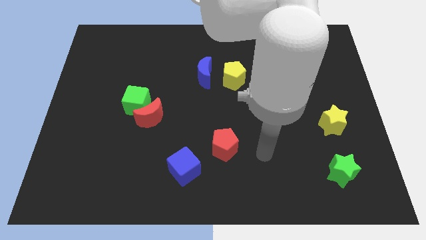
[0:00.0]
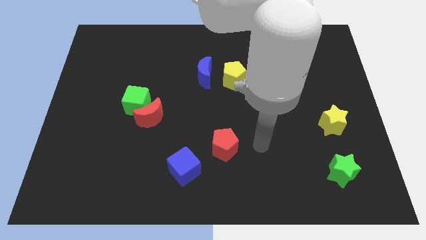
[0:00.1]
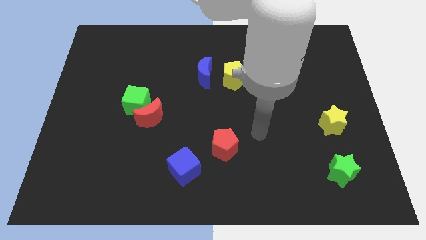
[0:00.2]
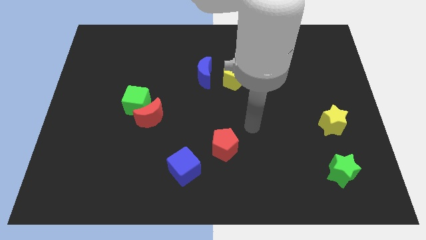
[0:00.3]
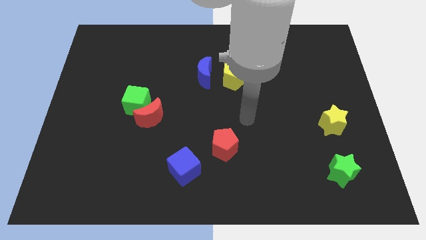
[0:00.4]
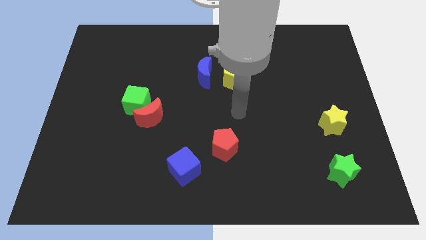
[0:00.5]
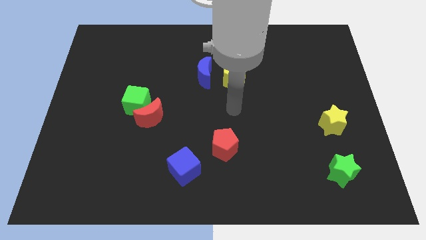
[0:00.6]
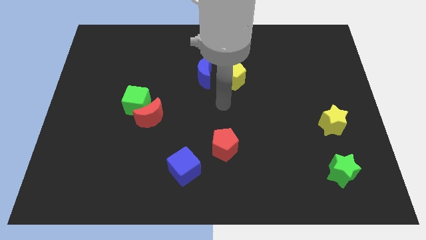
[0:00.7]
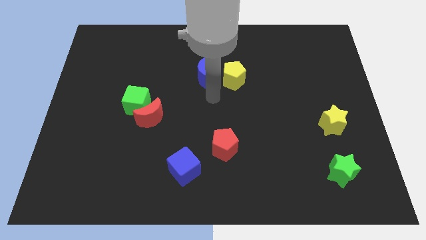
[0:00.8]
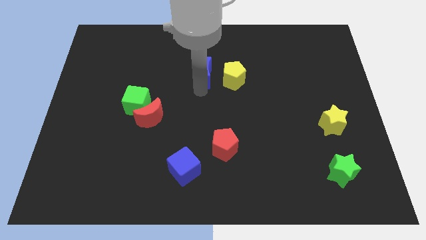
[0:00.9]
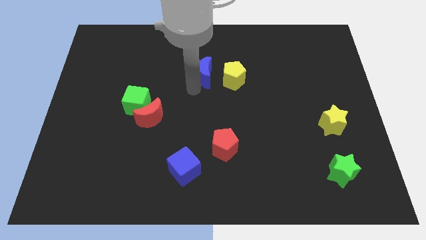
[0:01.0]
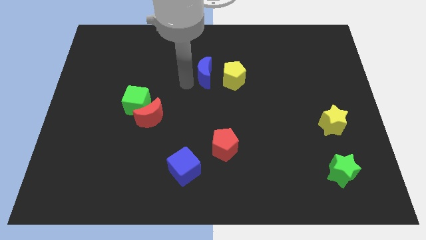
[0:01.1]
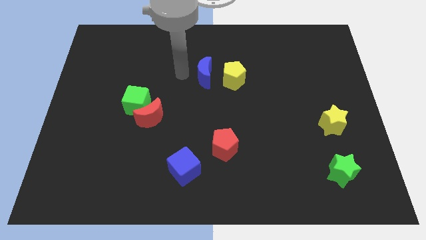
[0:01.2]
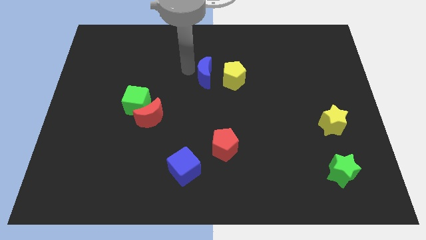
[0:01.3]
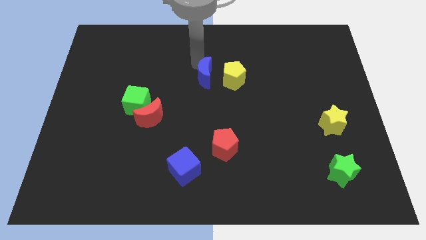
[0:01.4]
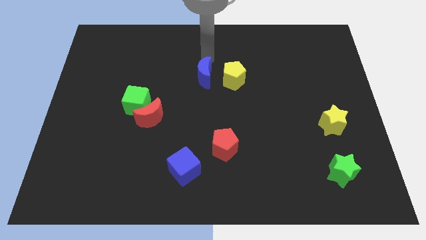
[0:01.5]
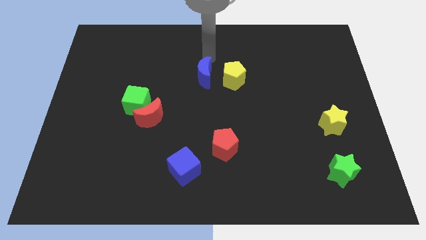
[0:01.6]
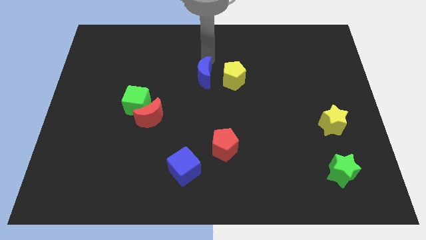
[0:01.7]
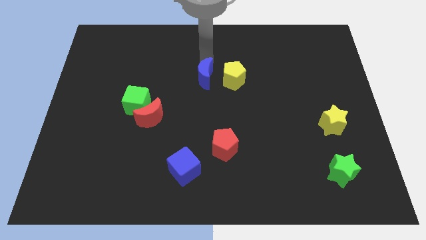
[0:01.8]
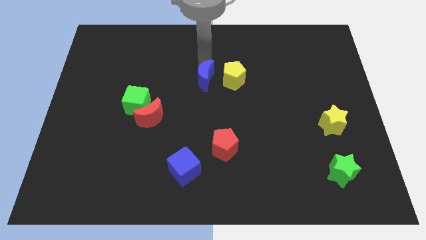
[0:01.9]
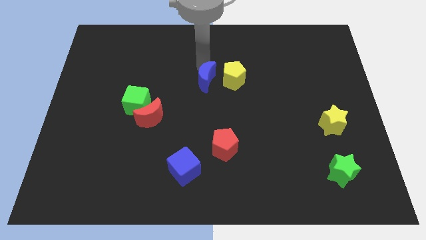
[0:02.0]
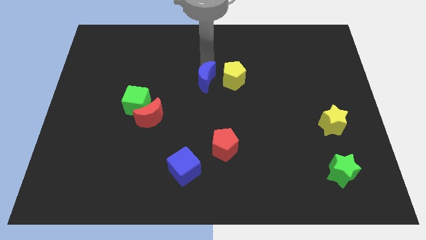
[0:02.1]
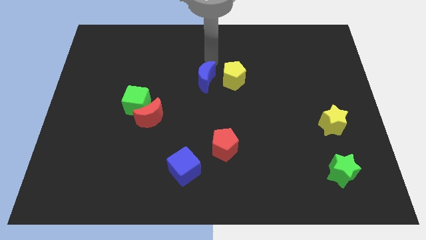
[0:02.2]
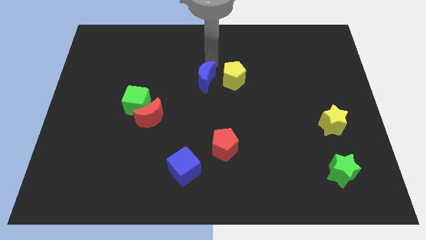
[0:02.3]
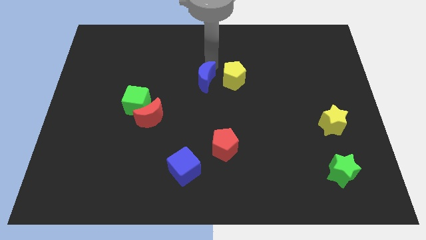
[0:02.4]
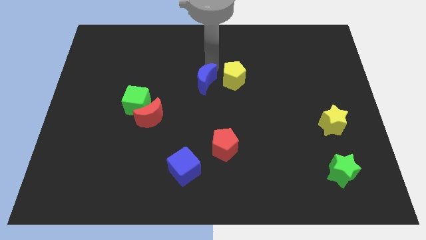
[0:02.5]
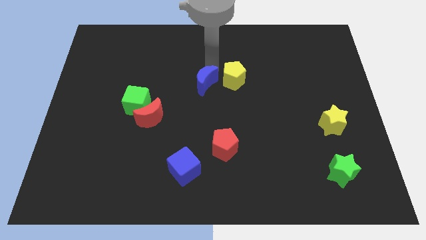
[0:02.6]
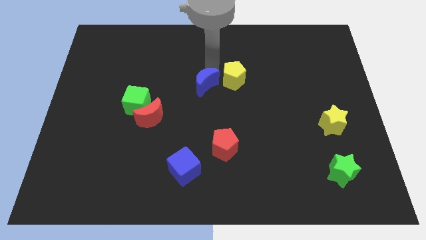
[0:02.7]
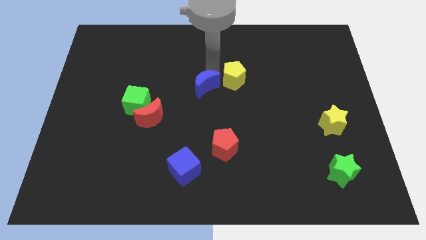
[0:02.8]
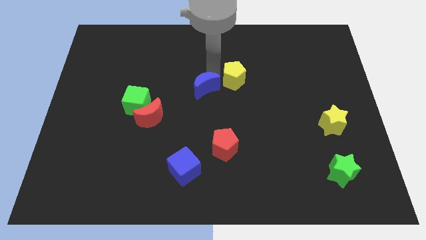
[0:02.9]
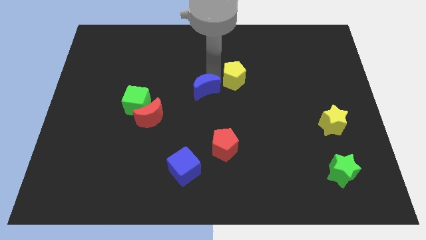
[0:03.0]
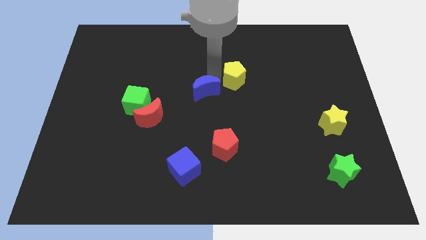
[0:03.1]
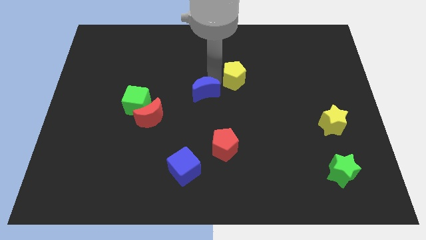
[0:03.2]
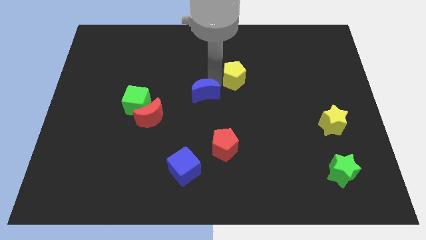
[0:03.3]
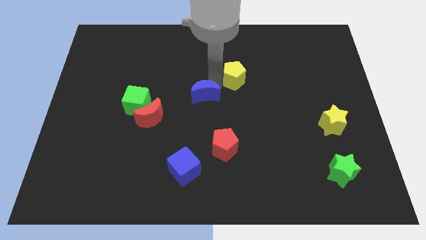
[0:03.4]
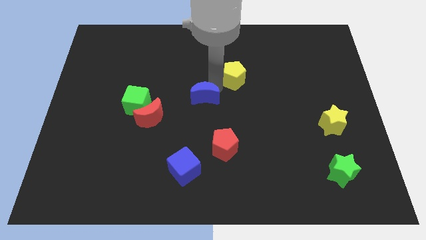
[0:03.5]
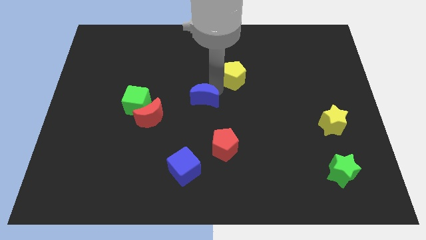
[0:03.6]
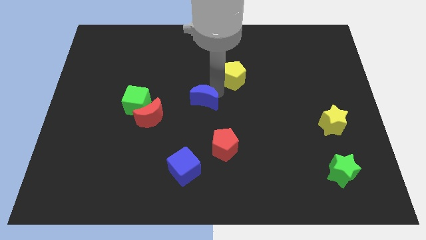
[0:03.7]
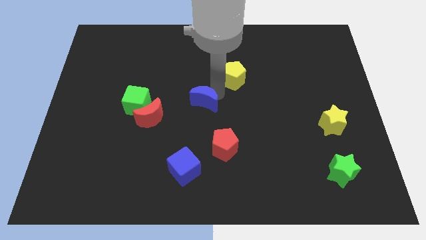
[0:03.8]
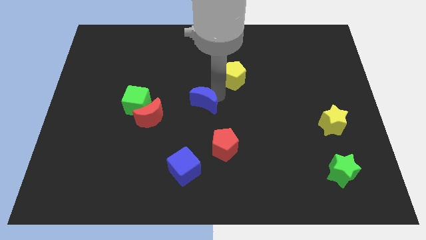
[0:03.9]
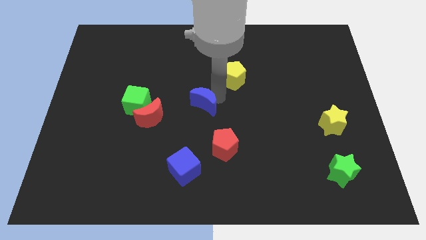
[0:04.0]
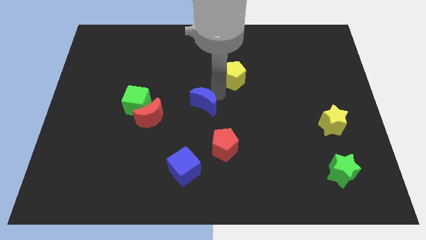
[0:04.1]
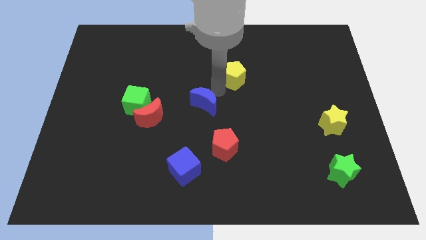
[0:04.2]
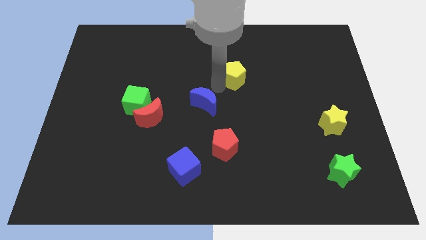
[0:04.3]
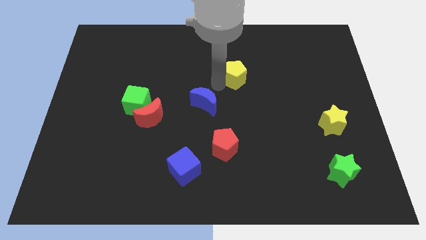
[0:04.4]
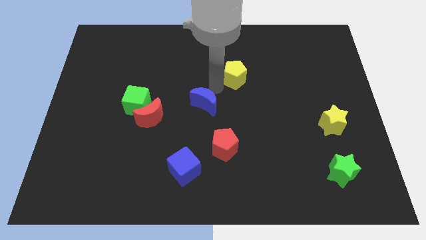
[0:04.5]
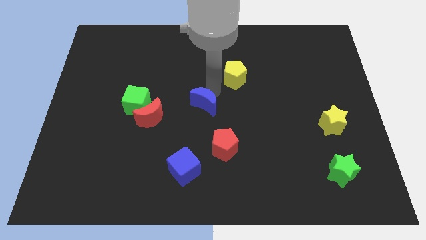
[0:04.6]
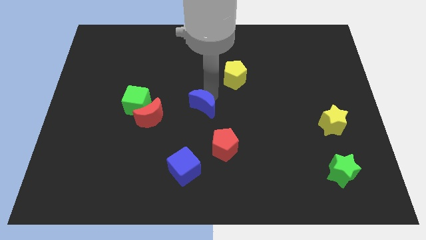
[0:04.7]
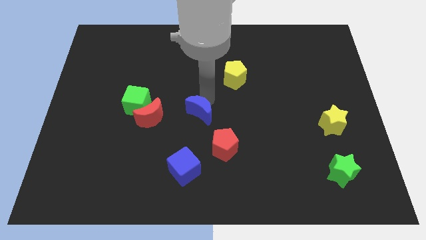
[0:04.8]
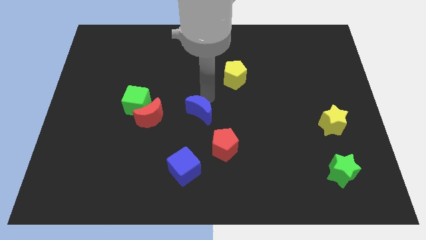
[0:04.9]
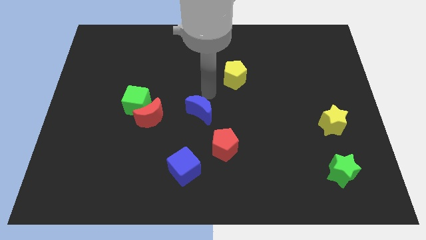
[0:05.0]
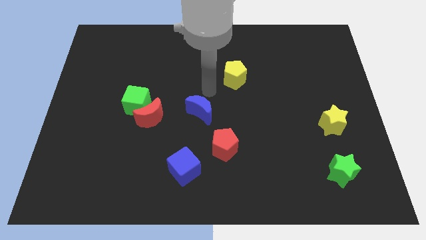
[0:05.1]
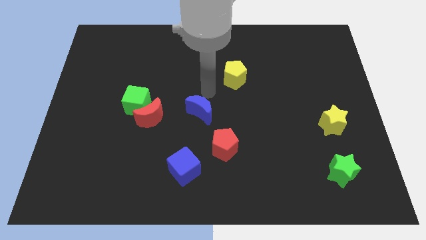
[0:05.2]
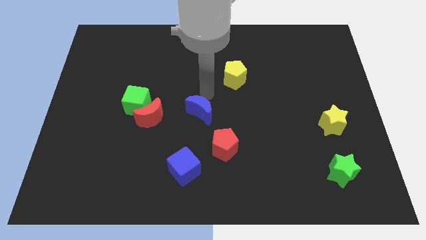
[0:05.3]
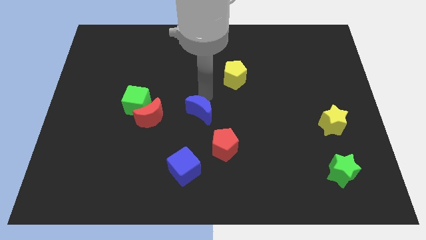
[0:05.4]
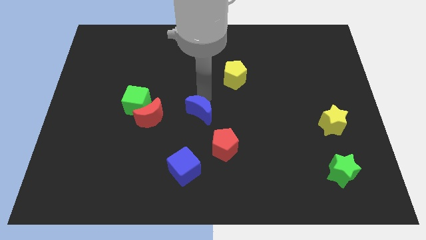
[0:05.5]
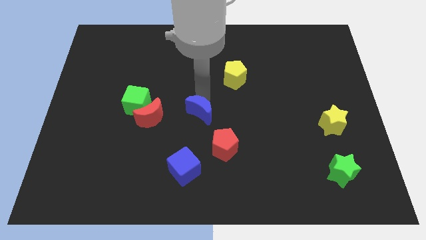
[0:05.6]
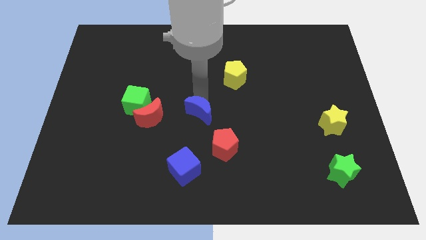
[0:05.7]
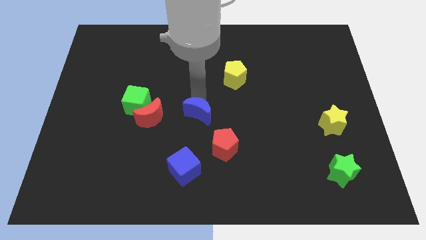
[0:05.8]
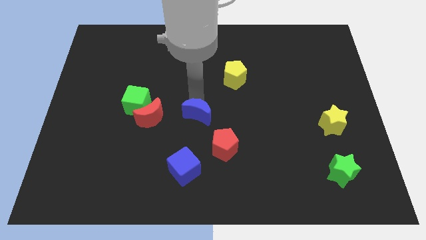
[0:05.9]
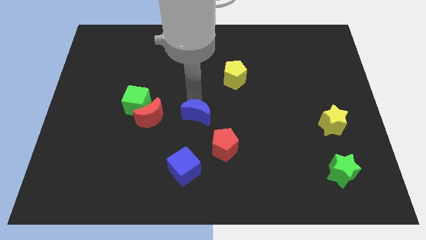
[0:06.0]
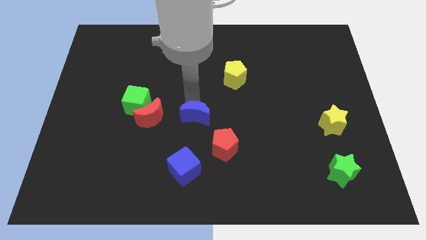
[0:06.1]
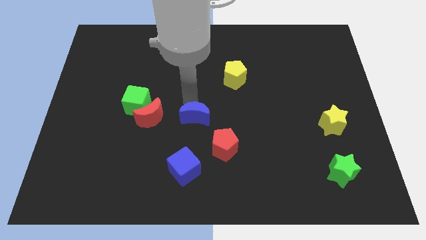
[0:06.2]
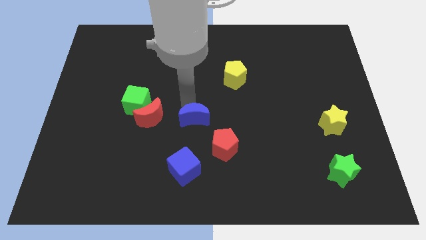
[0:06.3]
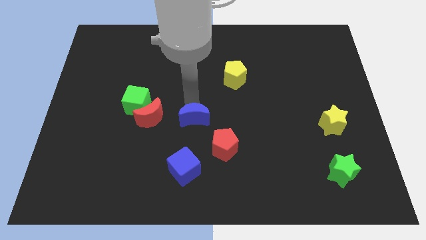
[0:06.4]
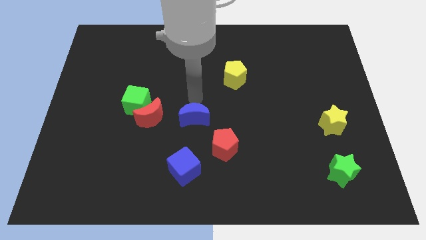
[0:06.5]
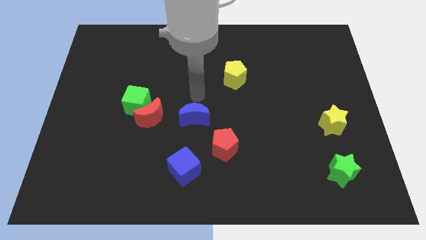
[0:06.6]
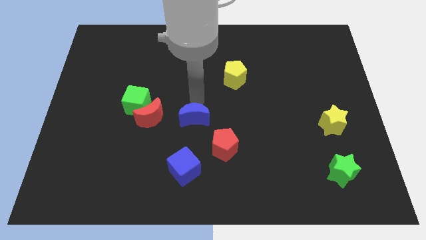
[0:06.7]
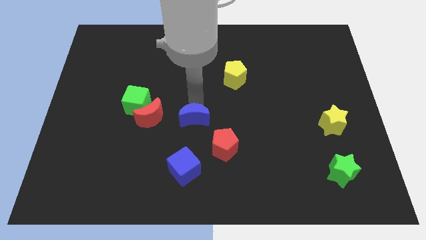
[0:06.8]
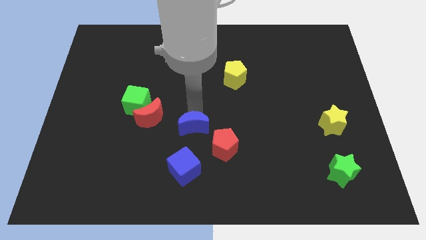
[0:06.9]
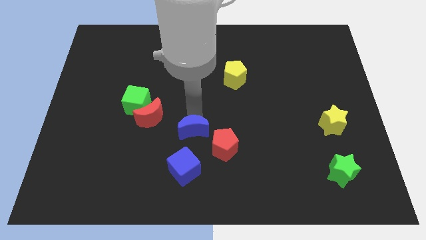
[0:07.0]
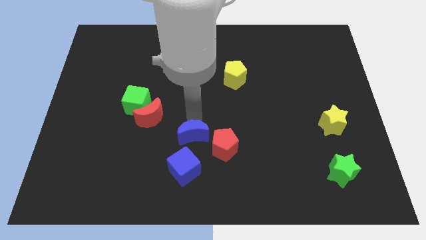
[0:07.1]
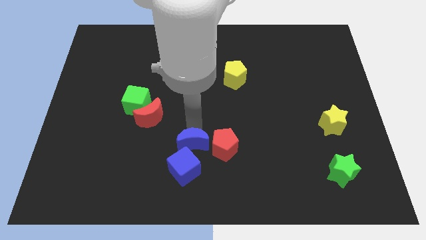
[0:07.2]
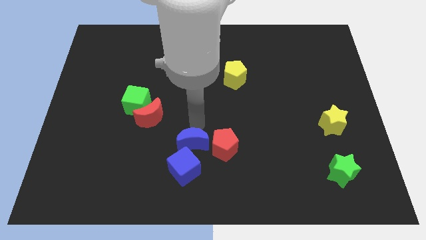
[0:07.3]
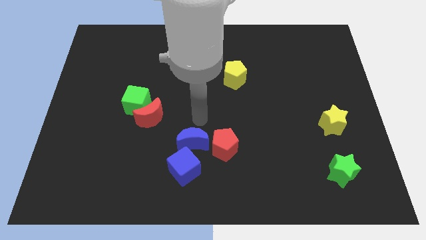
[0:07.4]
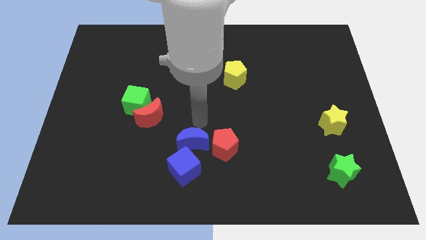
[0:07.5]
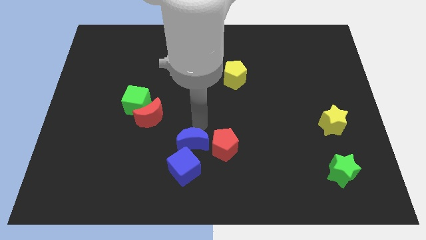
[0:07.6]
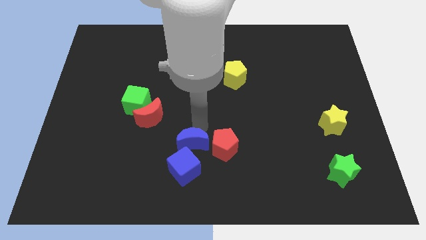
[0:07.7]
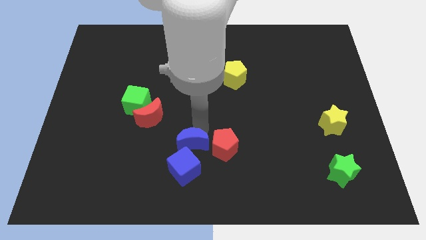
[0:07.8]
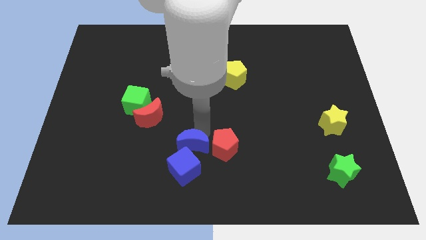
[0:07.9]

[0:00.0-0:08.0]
slide the blue moon next to the blue cube
